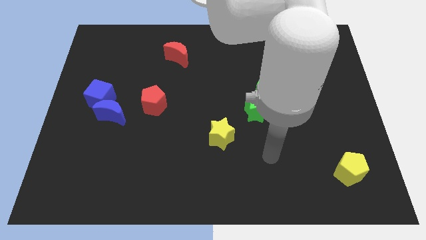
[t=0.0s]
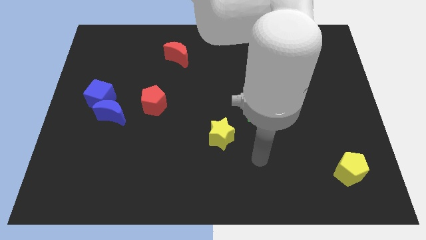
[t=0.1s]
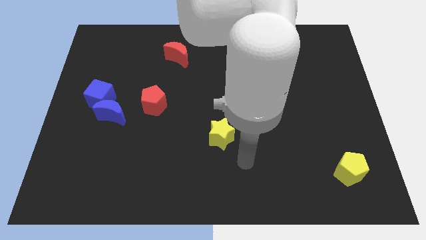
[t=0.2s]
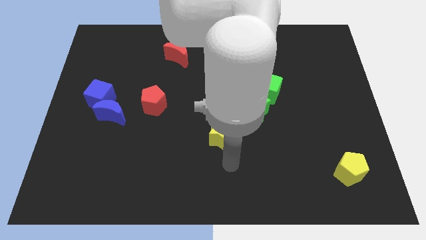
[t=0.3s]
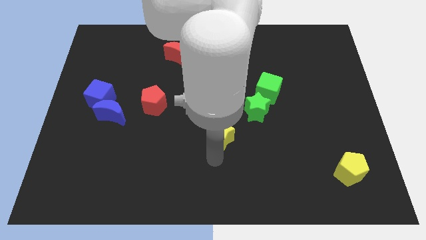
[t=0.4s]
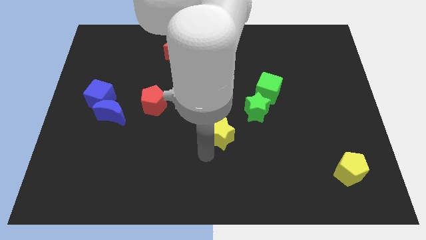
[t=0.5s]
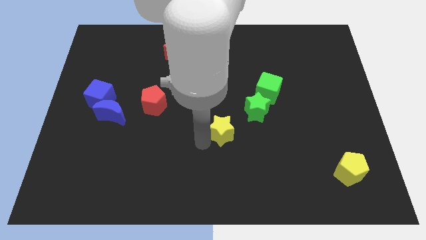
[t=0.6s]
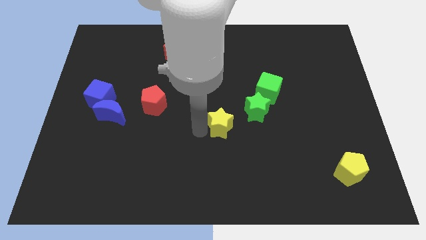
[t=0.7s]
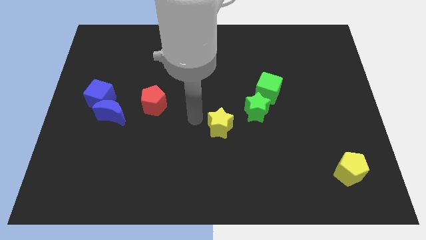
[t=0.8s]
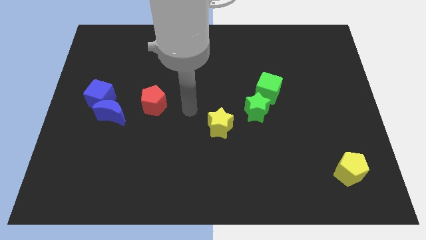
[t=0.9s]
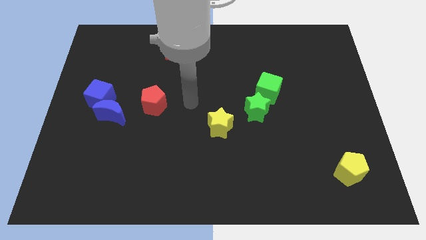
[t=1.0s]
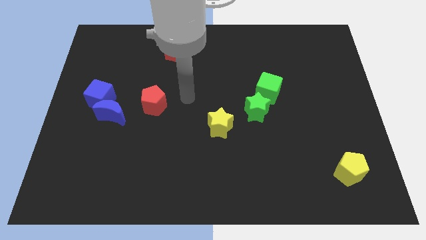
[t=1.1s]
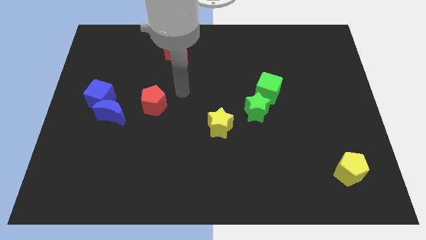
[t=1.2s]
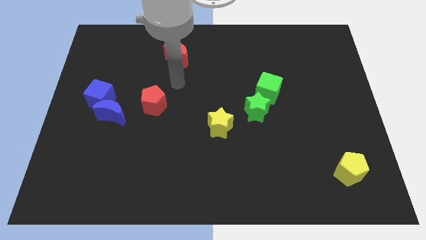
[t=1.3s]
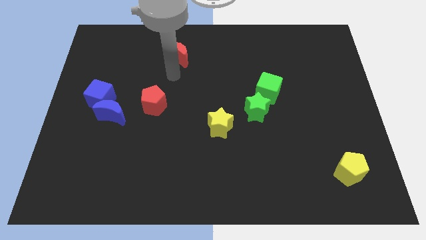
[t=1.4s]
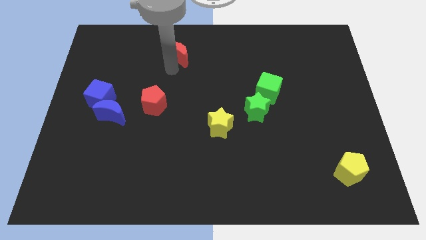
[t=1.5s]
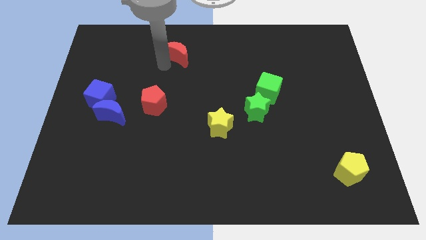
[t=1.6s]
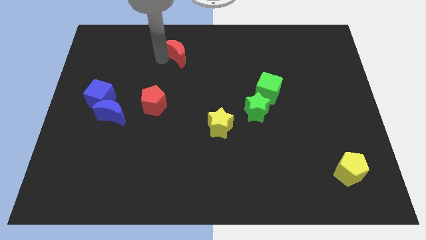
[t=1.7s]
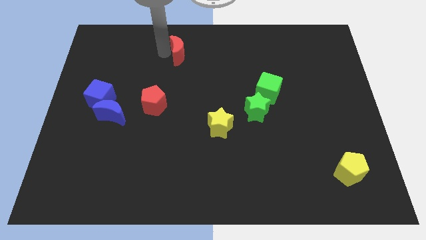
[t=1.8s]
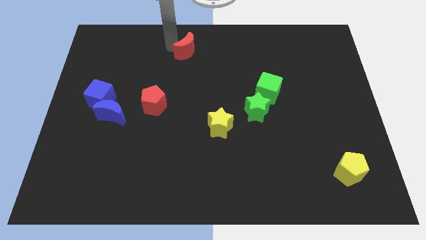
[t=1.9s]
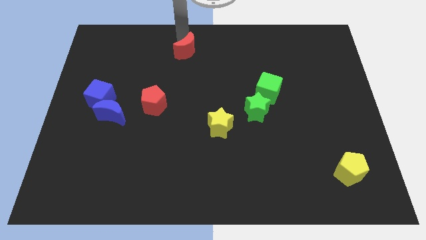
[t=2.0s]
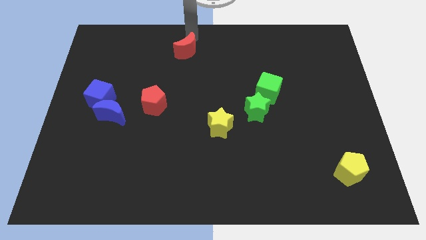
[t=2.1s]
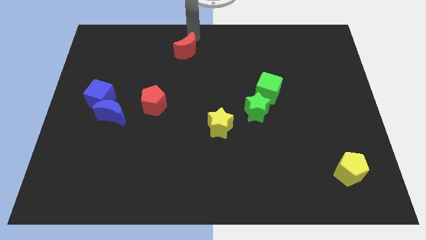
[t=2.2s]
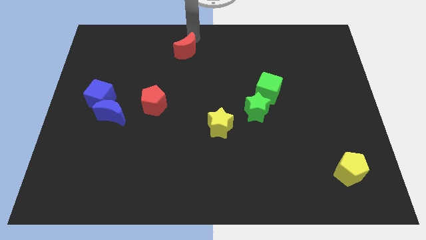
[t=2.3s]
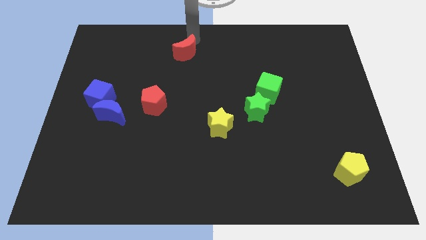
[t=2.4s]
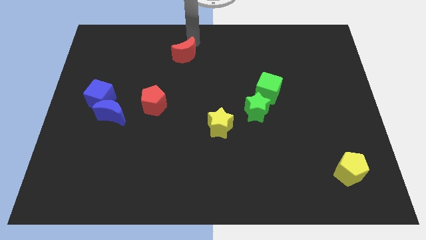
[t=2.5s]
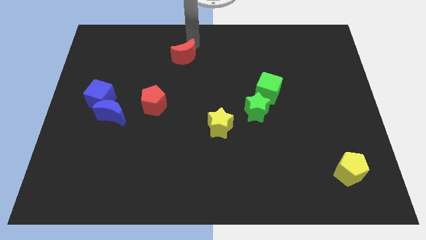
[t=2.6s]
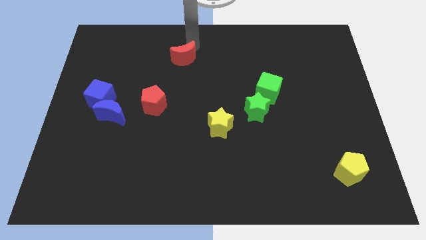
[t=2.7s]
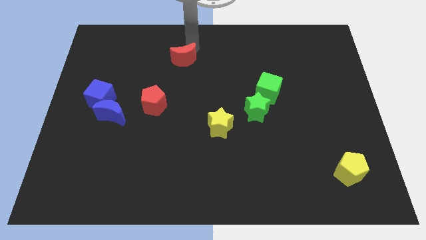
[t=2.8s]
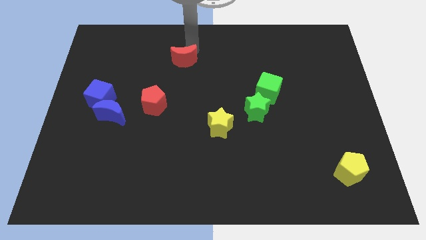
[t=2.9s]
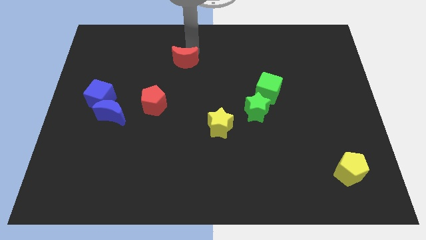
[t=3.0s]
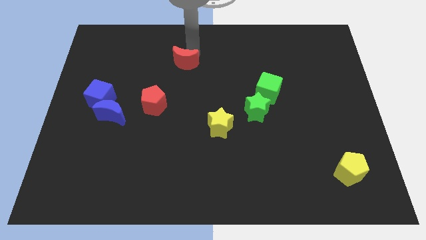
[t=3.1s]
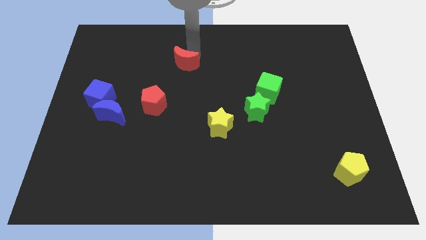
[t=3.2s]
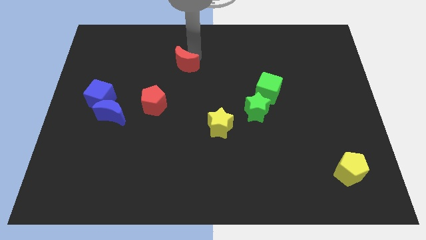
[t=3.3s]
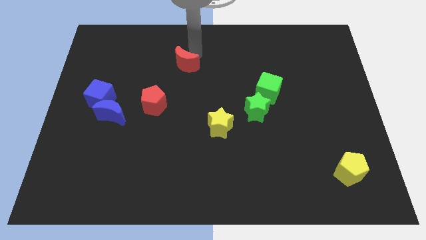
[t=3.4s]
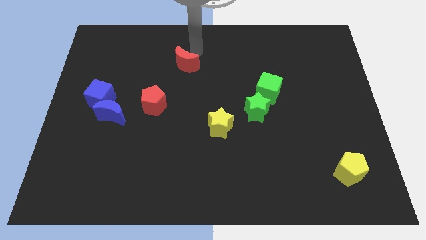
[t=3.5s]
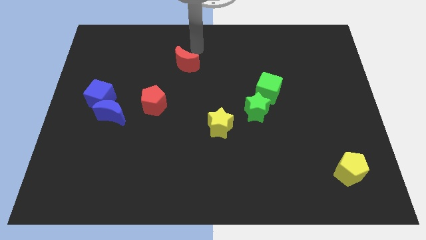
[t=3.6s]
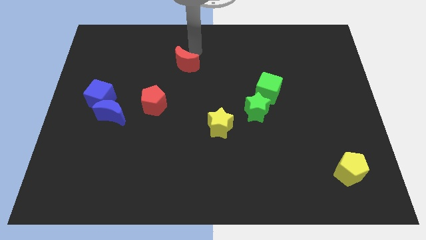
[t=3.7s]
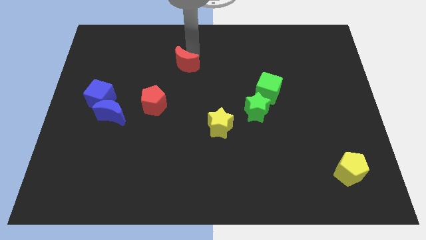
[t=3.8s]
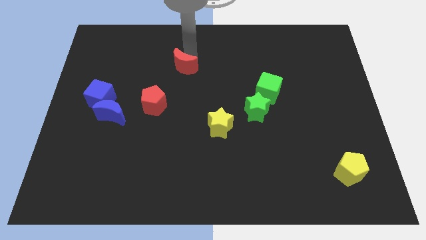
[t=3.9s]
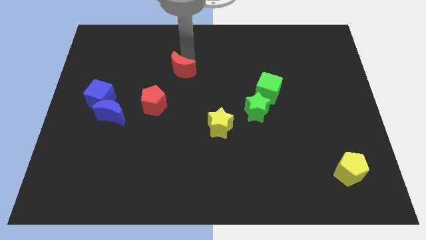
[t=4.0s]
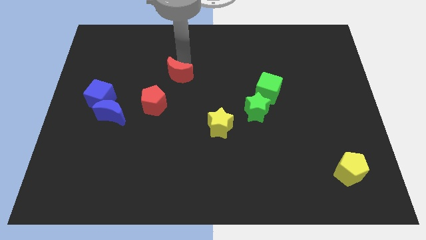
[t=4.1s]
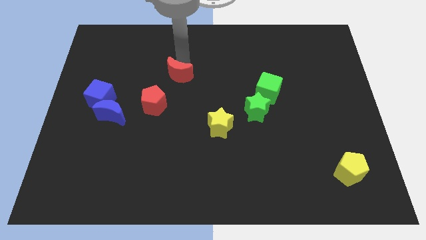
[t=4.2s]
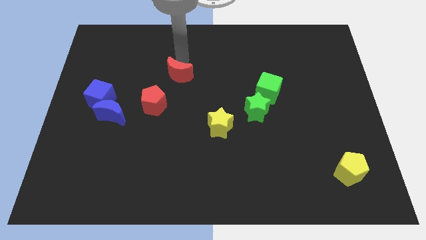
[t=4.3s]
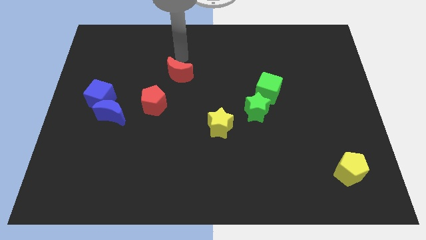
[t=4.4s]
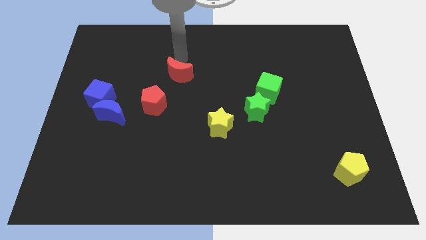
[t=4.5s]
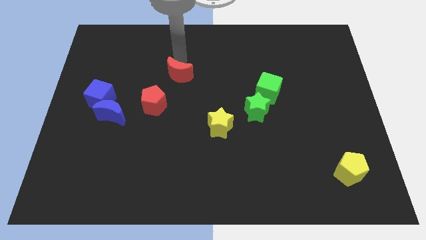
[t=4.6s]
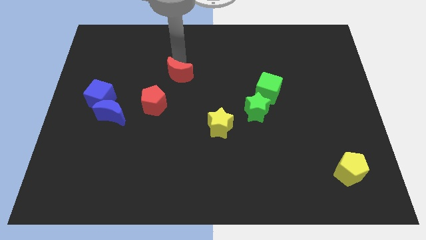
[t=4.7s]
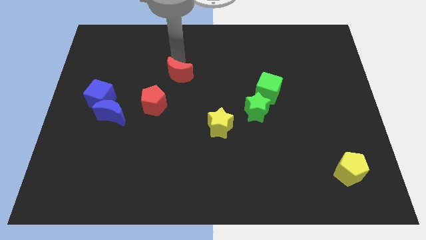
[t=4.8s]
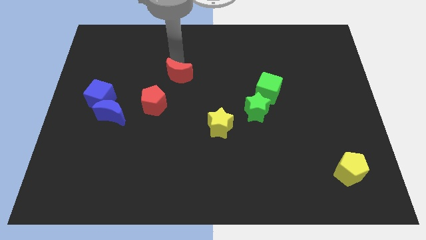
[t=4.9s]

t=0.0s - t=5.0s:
move the red moon downwards slightly

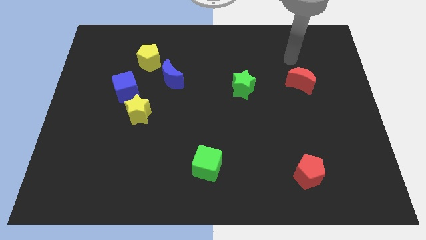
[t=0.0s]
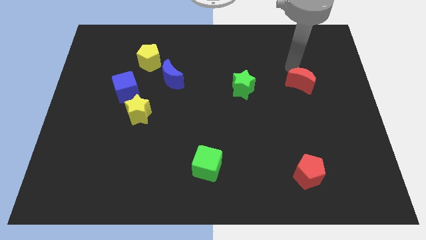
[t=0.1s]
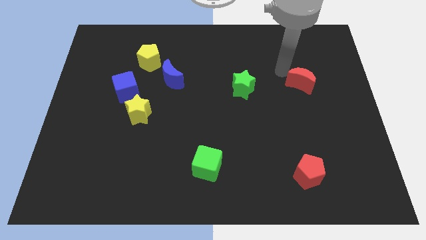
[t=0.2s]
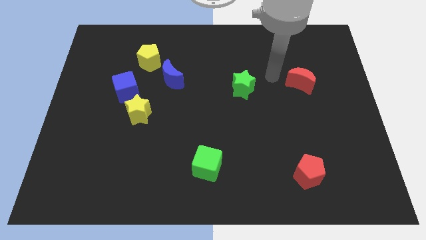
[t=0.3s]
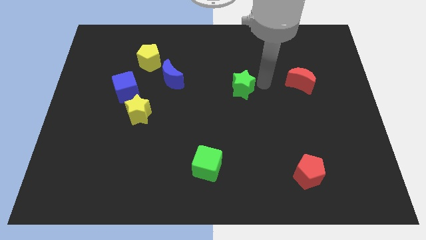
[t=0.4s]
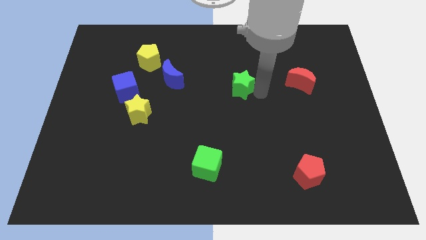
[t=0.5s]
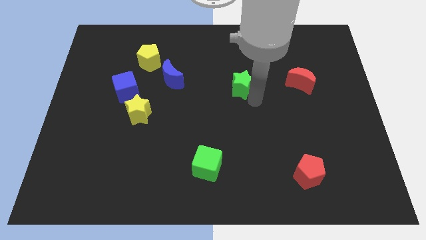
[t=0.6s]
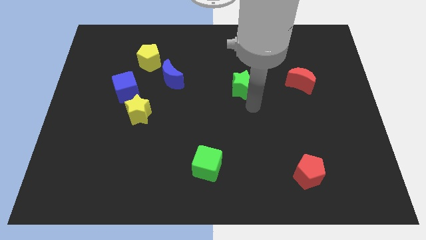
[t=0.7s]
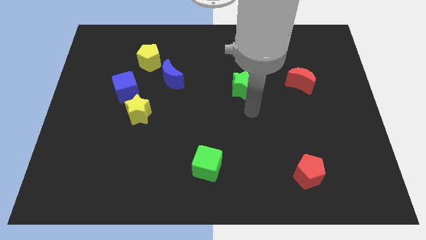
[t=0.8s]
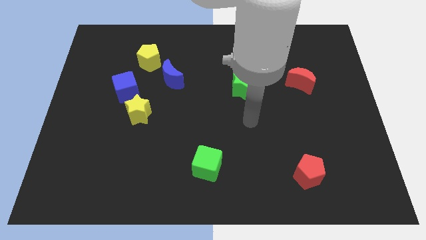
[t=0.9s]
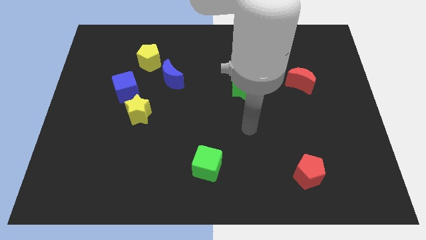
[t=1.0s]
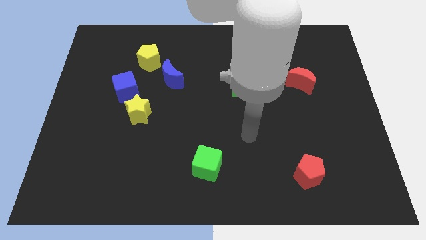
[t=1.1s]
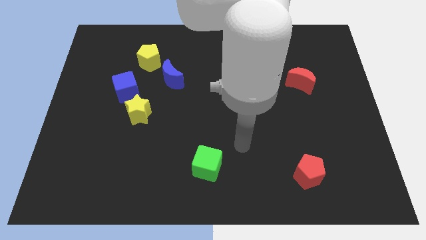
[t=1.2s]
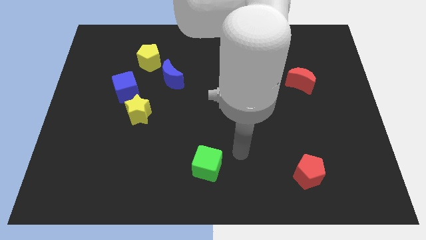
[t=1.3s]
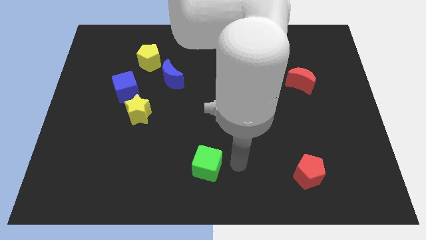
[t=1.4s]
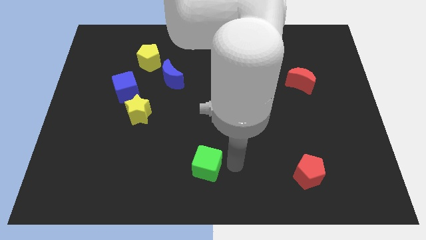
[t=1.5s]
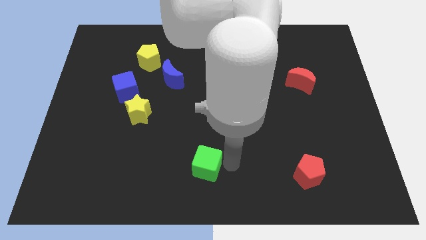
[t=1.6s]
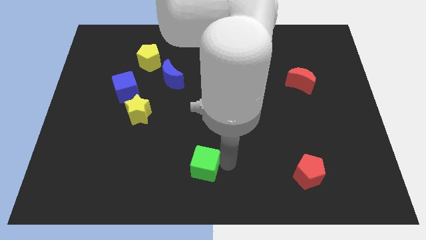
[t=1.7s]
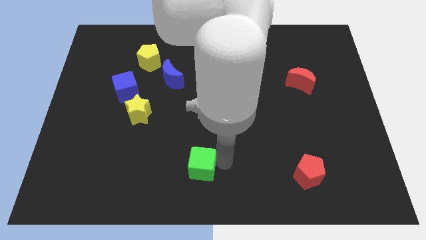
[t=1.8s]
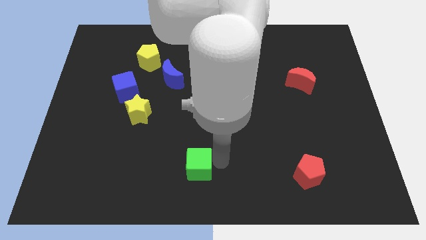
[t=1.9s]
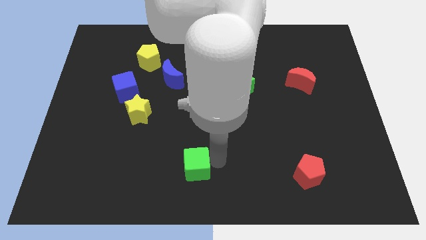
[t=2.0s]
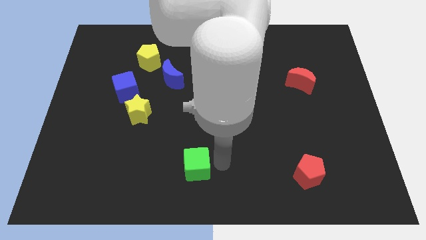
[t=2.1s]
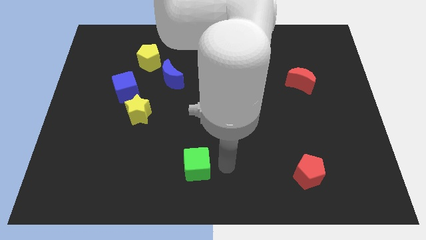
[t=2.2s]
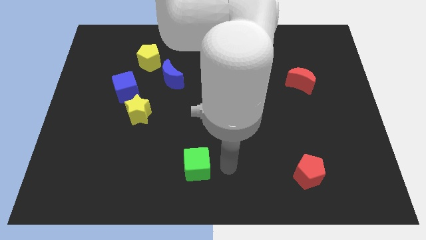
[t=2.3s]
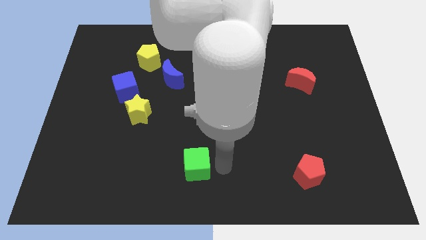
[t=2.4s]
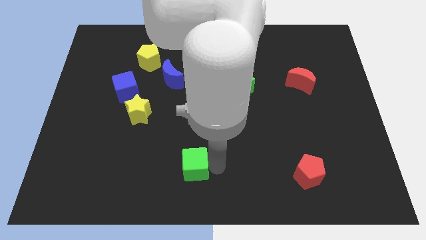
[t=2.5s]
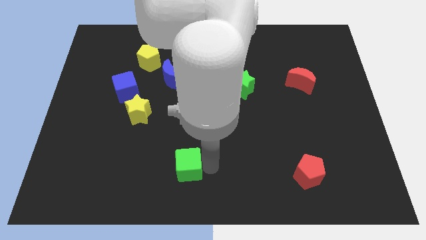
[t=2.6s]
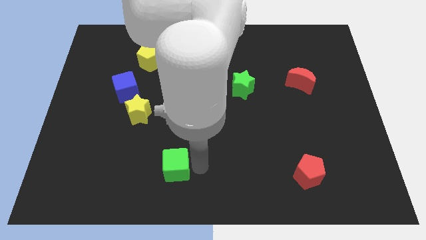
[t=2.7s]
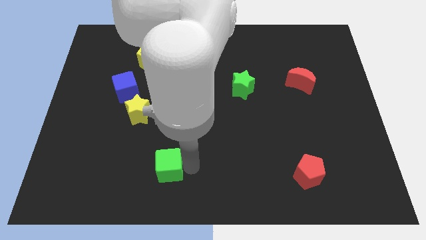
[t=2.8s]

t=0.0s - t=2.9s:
slightly move the green cube to the left
